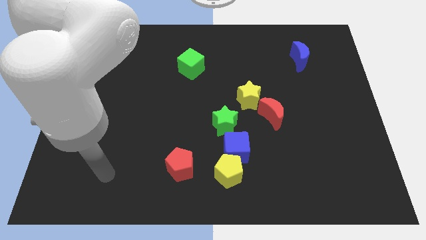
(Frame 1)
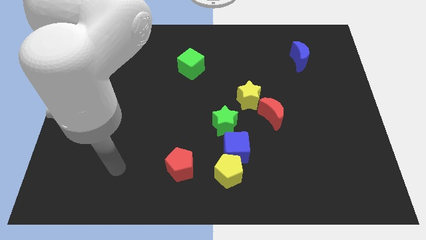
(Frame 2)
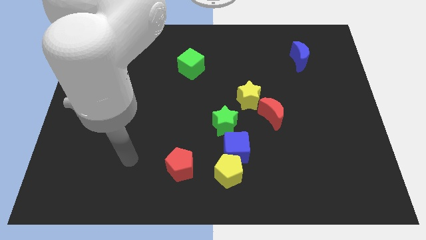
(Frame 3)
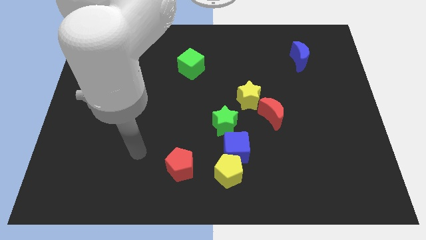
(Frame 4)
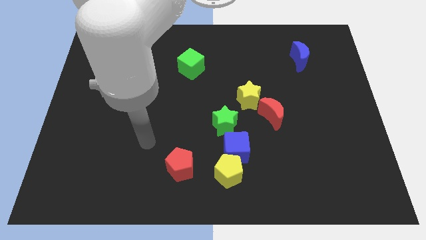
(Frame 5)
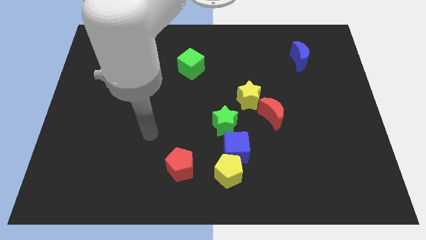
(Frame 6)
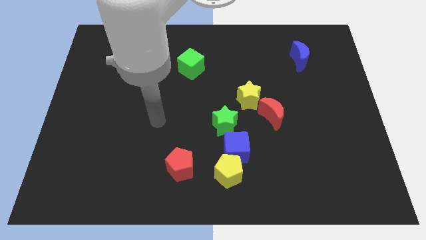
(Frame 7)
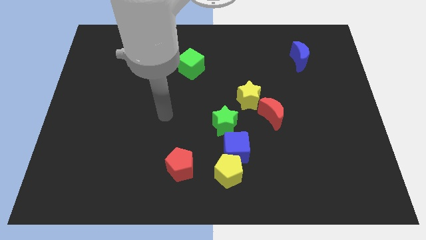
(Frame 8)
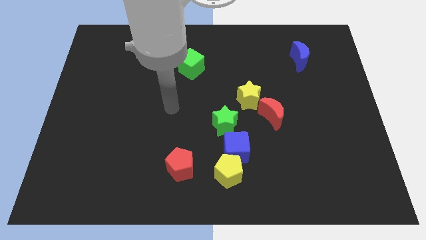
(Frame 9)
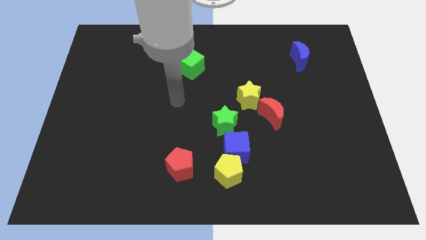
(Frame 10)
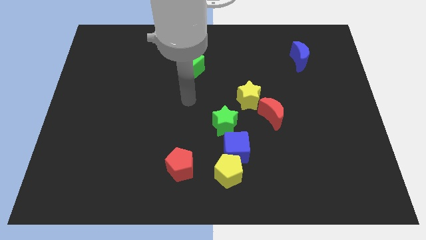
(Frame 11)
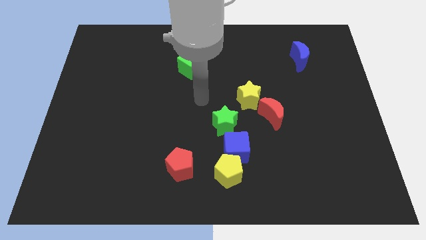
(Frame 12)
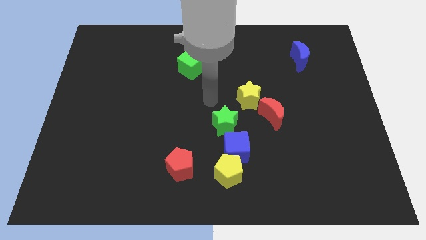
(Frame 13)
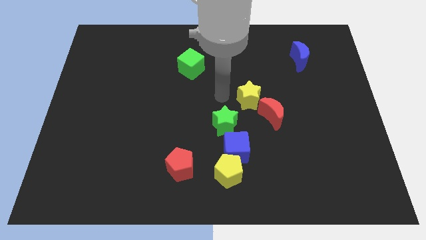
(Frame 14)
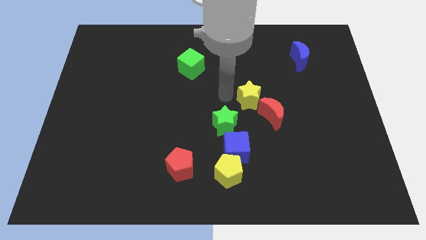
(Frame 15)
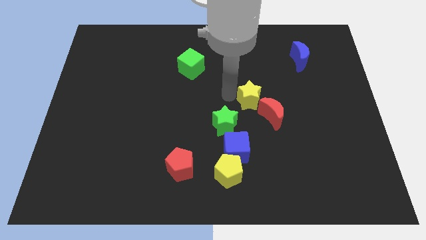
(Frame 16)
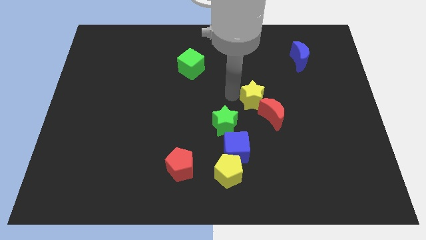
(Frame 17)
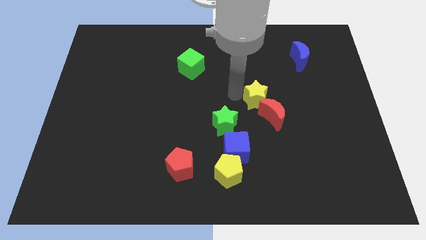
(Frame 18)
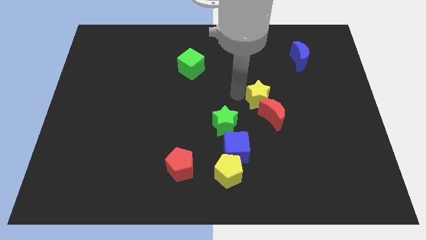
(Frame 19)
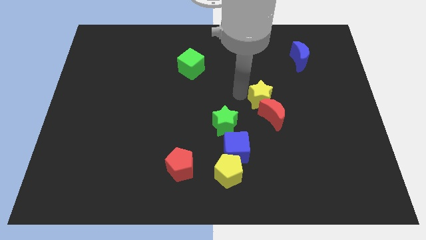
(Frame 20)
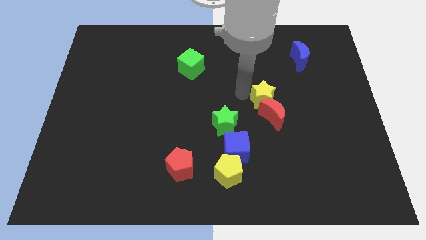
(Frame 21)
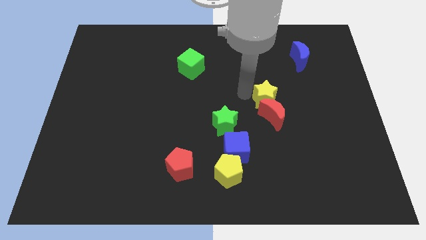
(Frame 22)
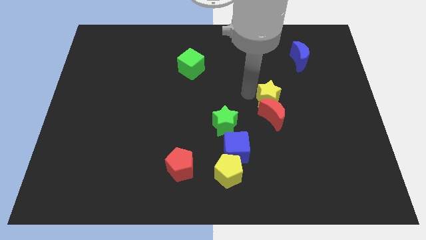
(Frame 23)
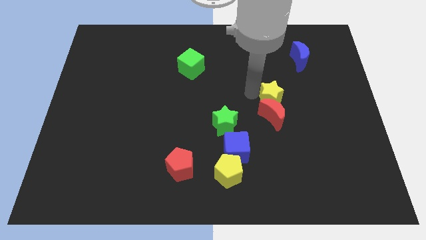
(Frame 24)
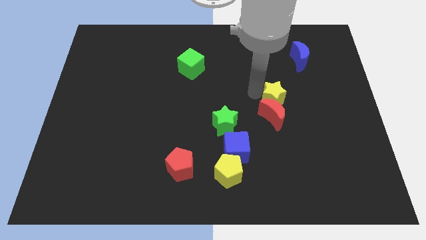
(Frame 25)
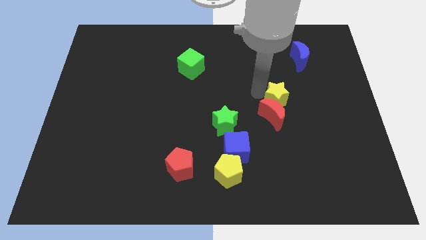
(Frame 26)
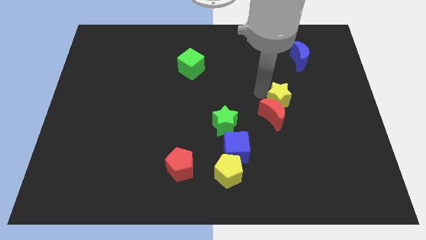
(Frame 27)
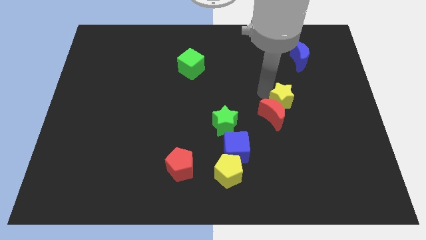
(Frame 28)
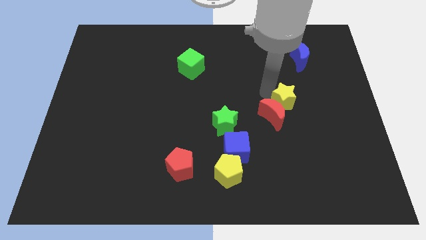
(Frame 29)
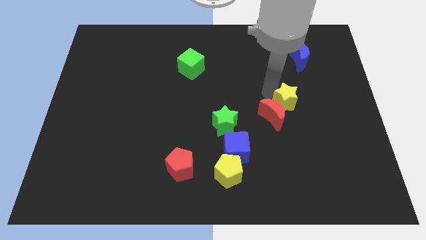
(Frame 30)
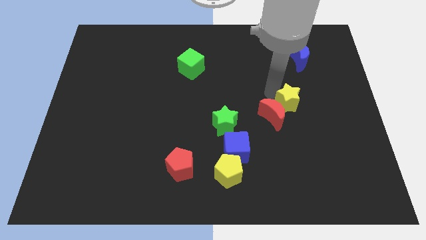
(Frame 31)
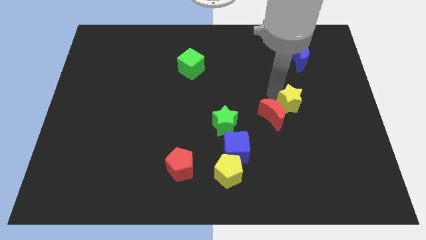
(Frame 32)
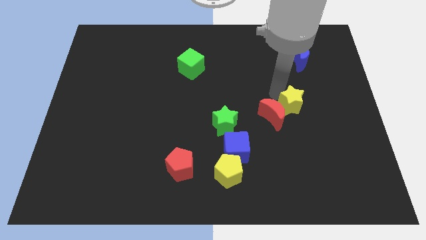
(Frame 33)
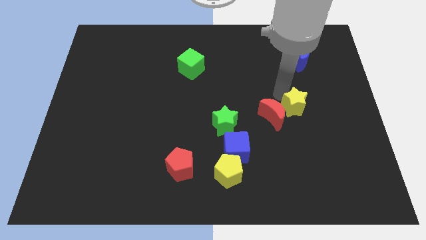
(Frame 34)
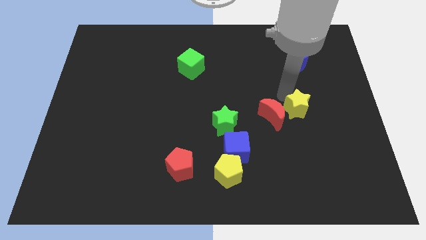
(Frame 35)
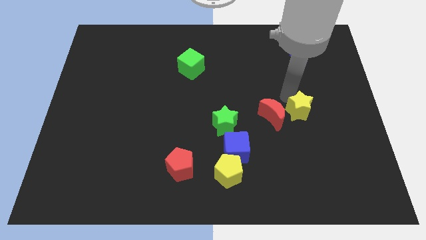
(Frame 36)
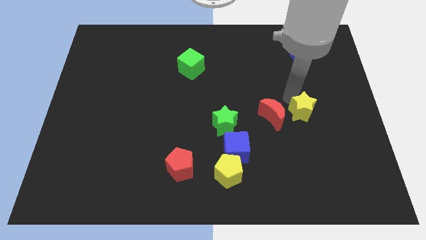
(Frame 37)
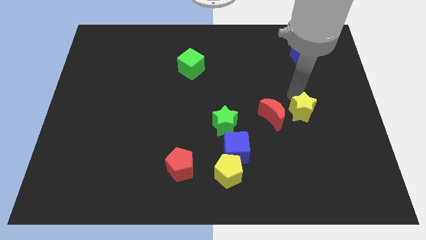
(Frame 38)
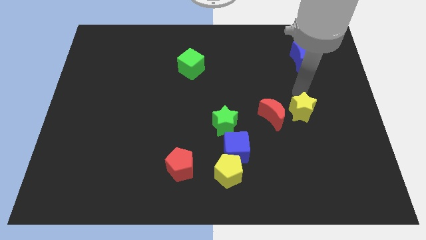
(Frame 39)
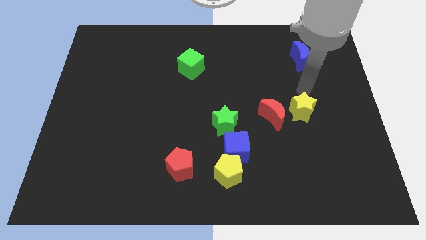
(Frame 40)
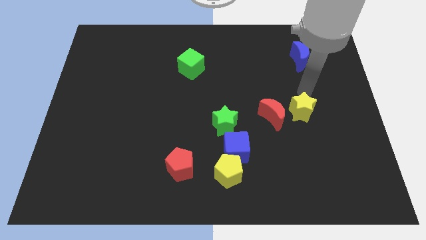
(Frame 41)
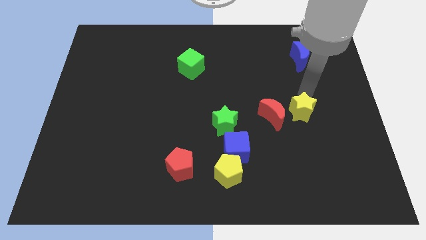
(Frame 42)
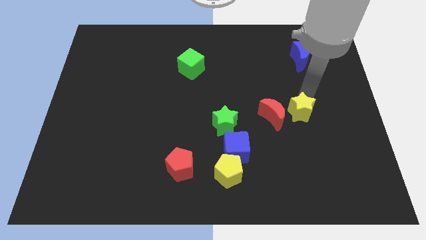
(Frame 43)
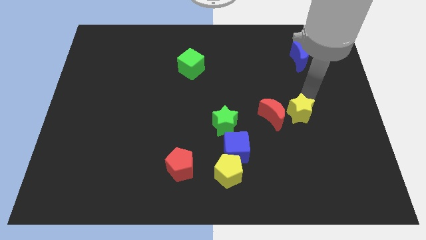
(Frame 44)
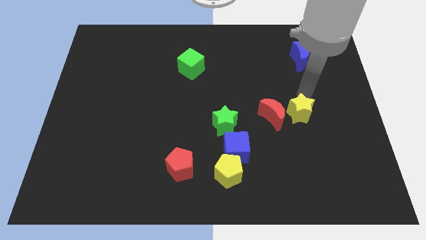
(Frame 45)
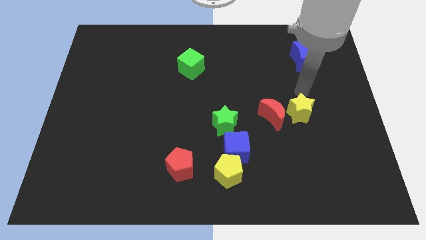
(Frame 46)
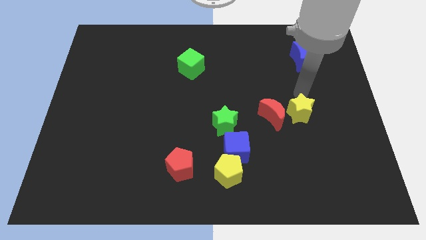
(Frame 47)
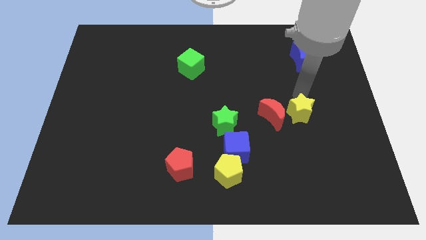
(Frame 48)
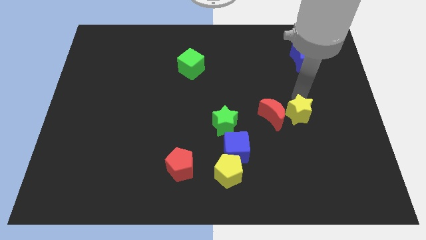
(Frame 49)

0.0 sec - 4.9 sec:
put the yellow star diagonally down and to the right of the red moon

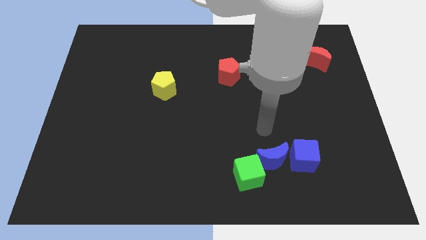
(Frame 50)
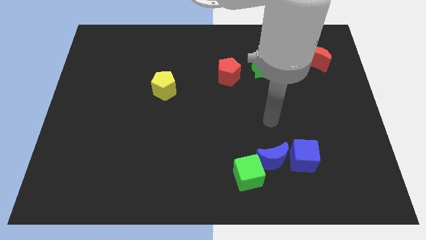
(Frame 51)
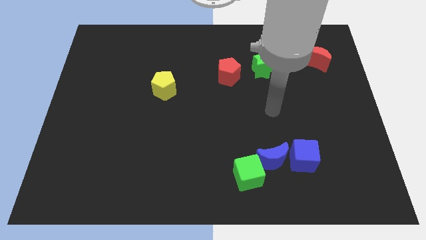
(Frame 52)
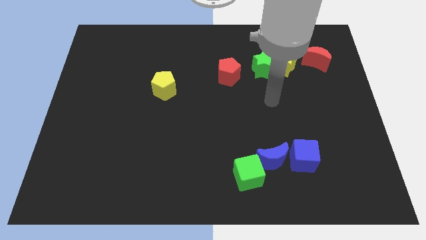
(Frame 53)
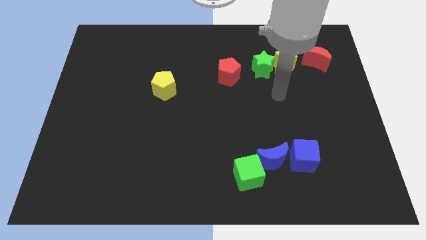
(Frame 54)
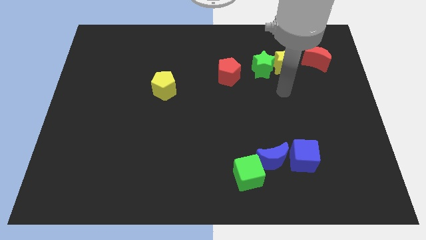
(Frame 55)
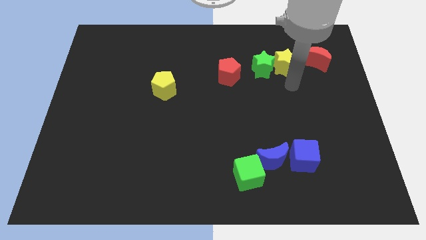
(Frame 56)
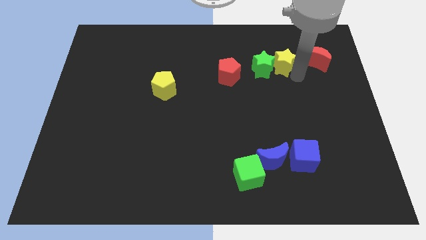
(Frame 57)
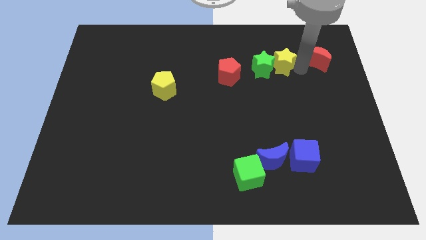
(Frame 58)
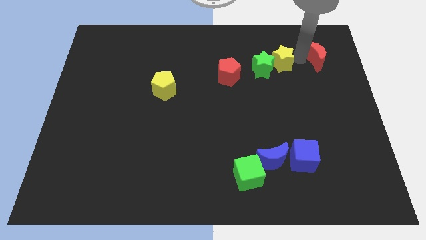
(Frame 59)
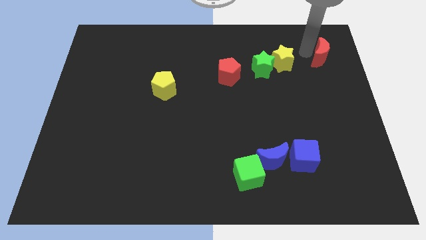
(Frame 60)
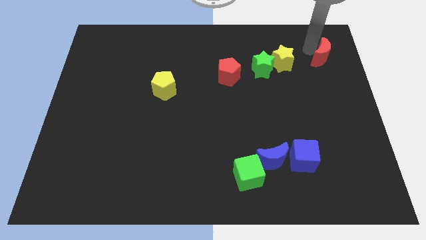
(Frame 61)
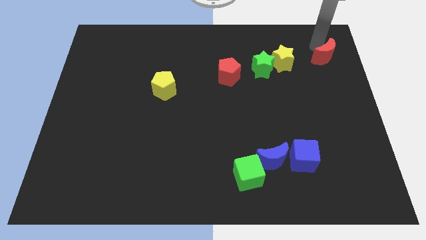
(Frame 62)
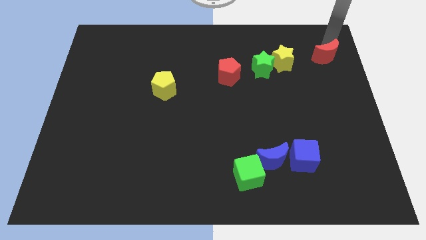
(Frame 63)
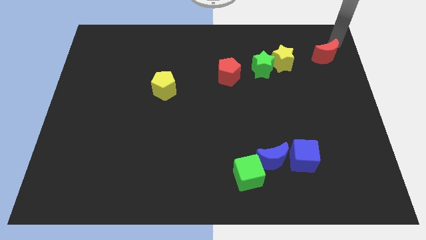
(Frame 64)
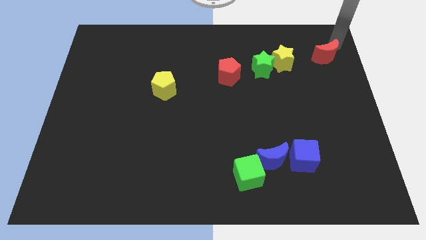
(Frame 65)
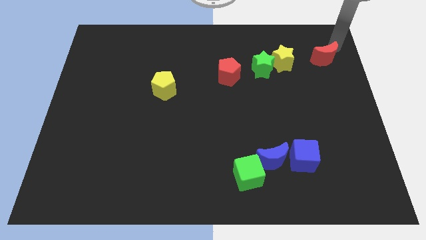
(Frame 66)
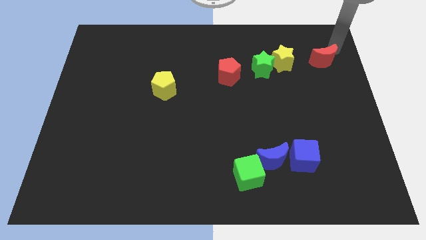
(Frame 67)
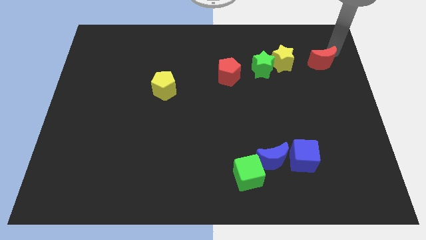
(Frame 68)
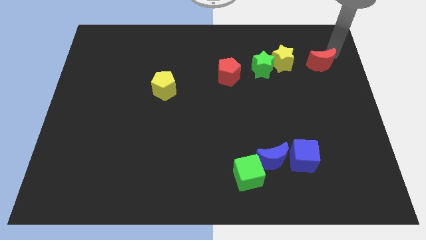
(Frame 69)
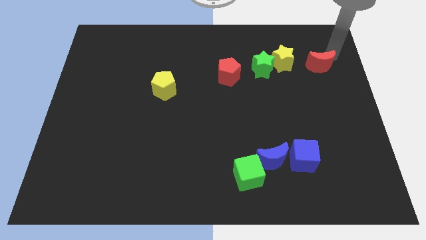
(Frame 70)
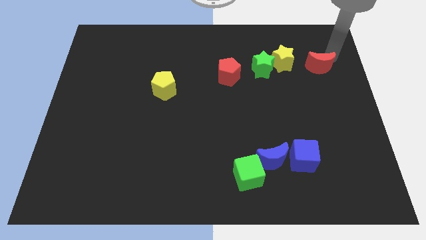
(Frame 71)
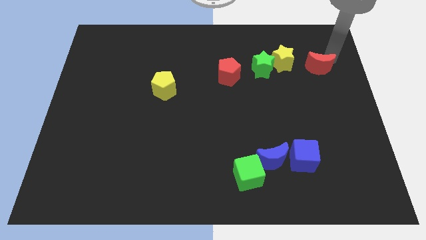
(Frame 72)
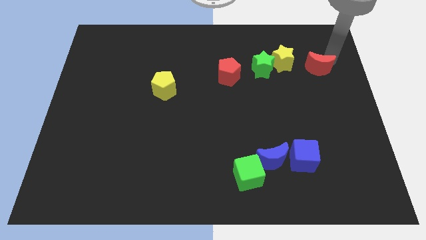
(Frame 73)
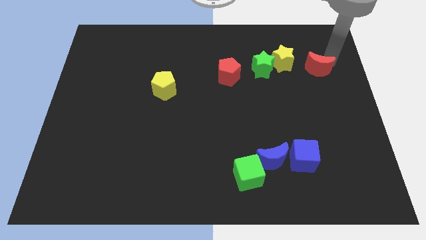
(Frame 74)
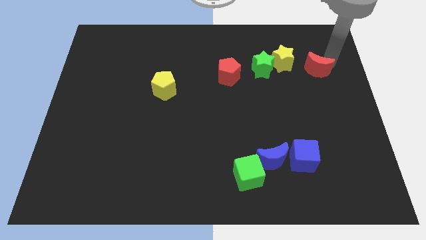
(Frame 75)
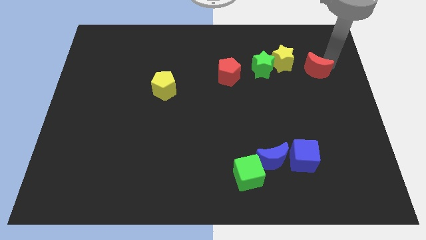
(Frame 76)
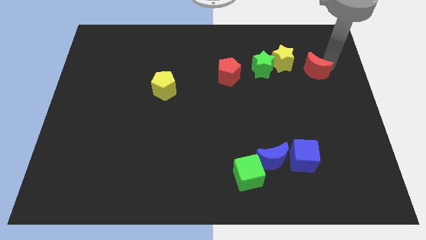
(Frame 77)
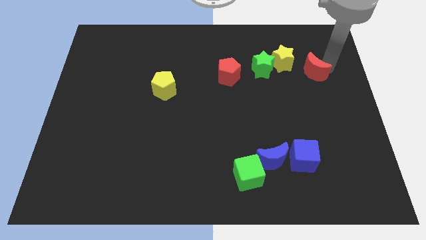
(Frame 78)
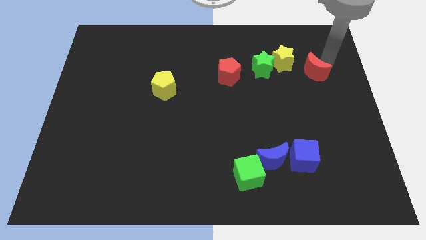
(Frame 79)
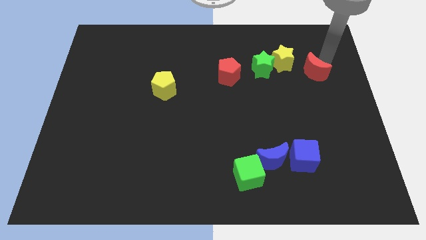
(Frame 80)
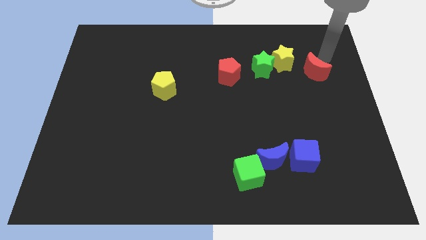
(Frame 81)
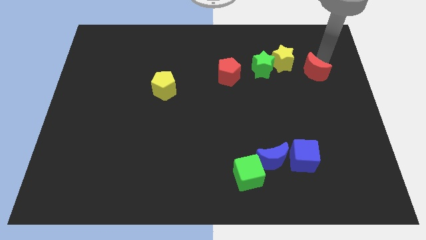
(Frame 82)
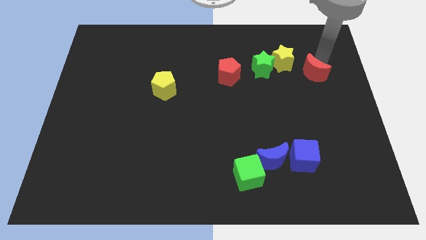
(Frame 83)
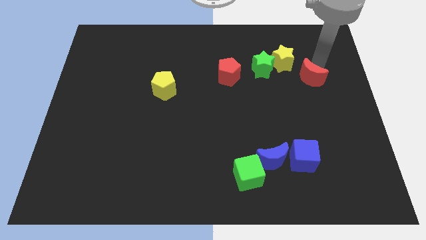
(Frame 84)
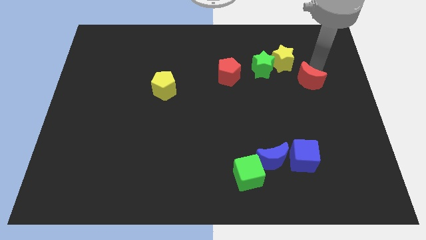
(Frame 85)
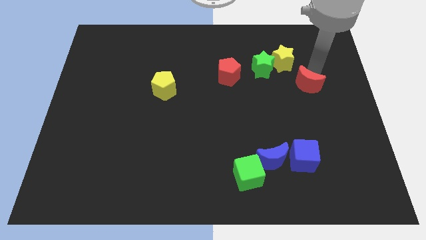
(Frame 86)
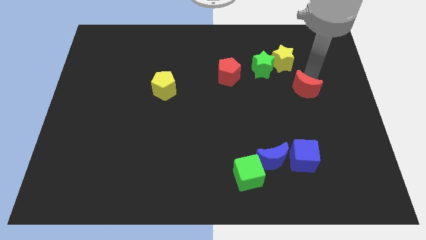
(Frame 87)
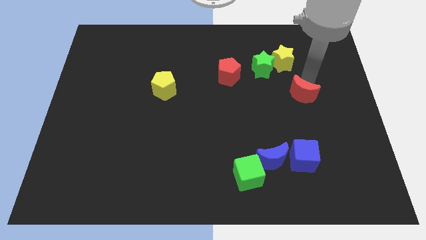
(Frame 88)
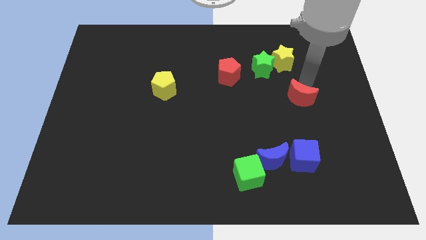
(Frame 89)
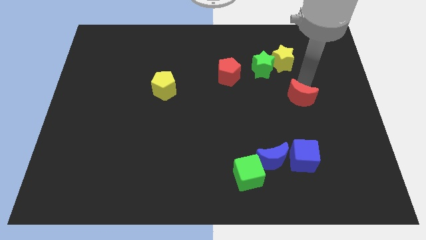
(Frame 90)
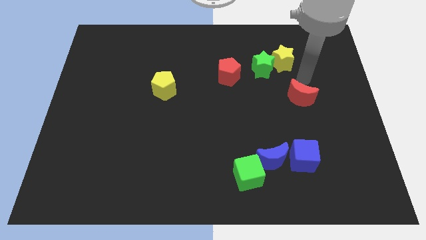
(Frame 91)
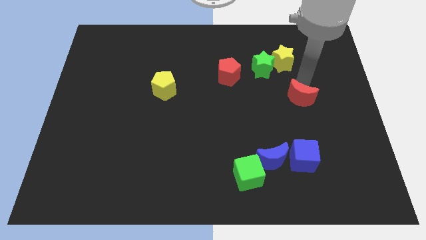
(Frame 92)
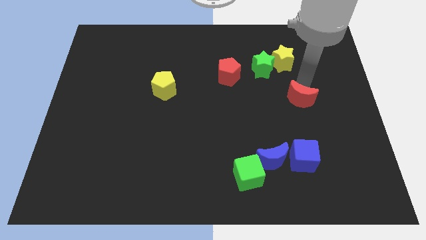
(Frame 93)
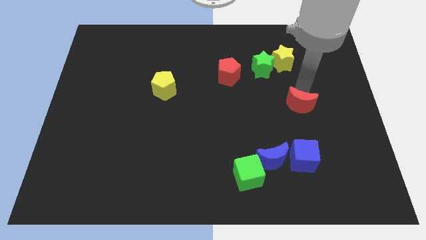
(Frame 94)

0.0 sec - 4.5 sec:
push the red moon to the top side of the blue cube
